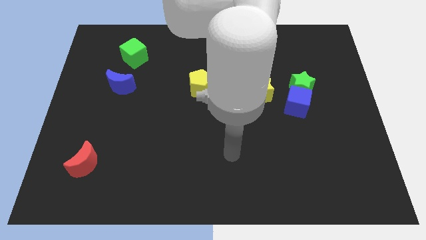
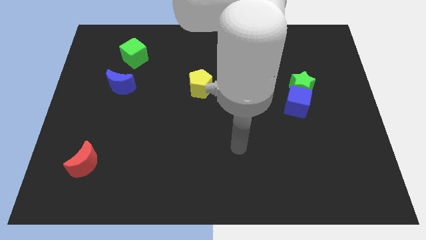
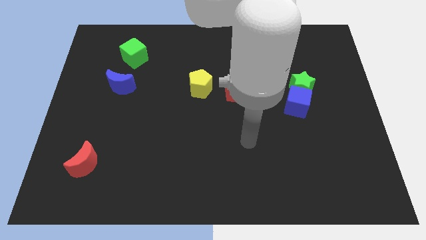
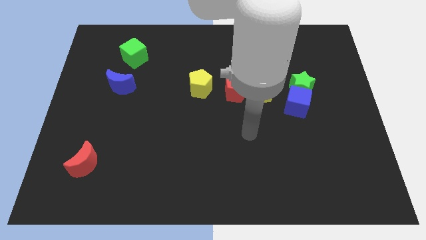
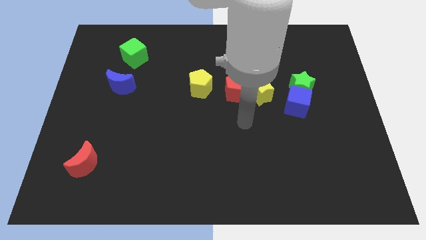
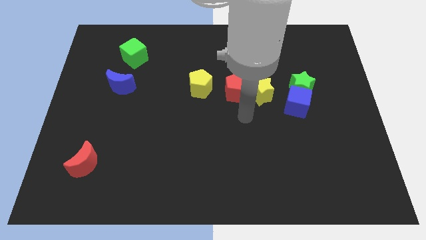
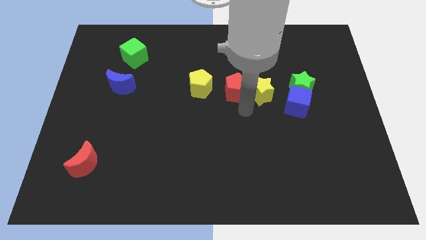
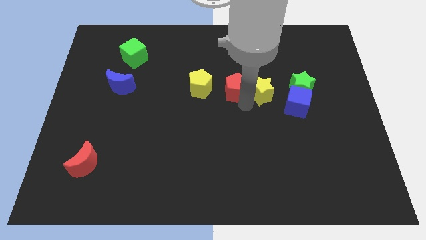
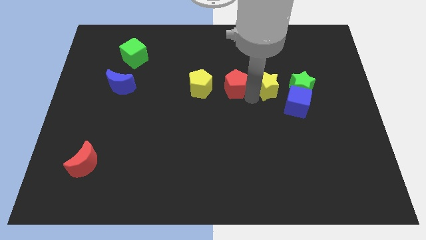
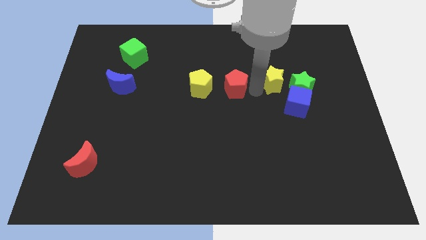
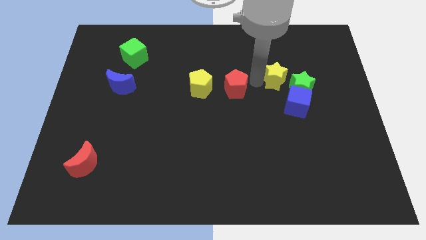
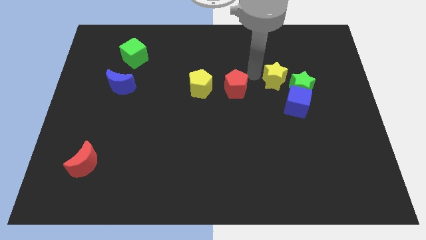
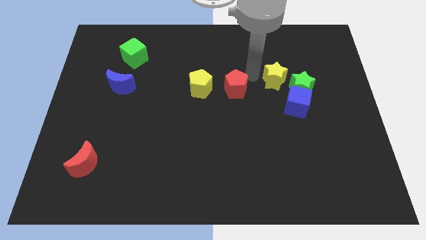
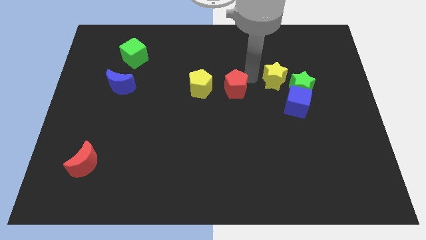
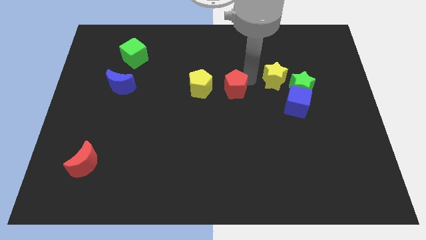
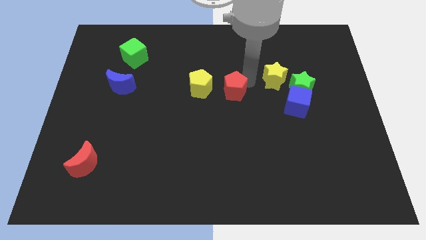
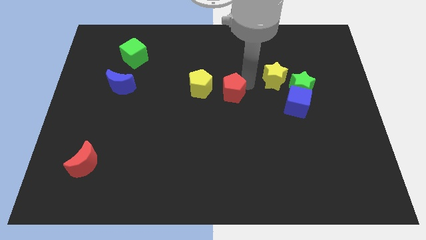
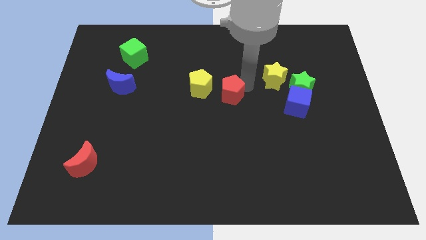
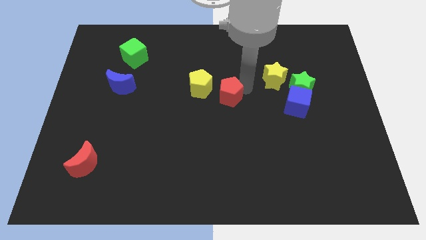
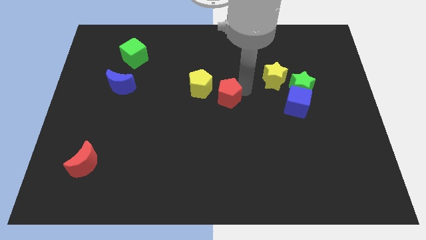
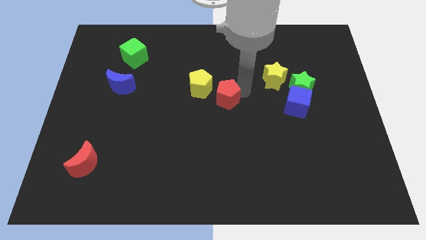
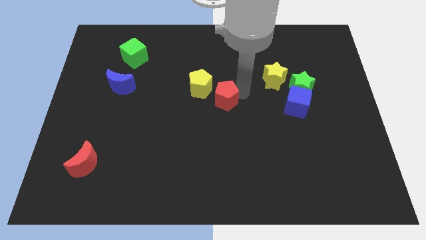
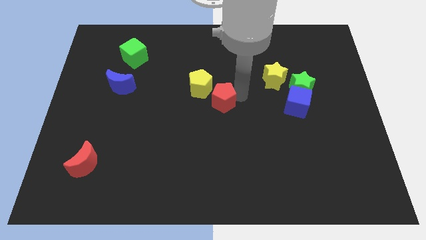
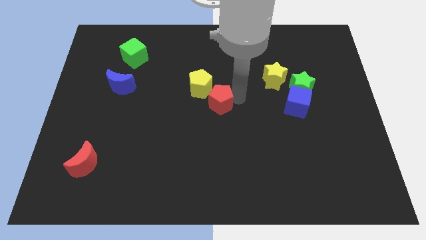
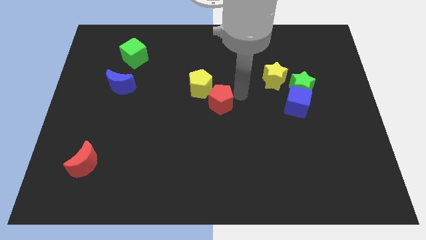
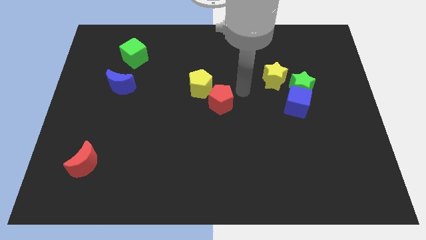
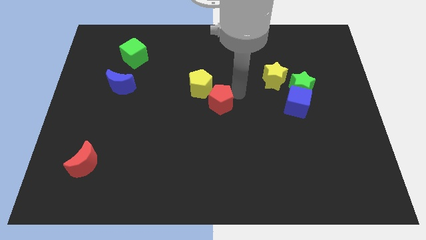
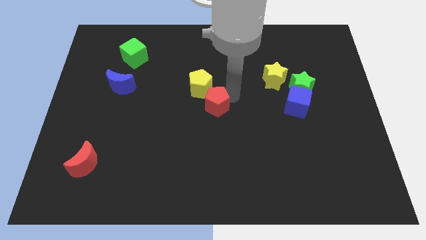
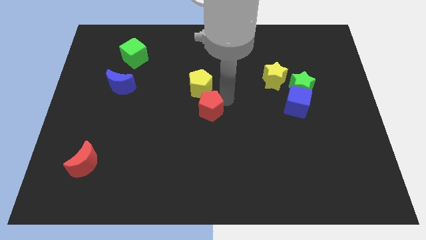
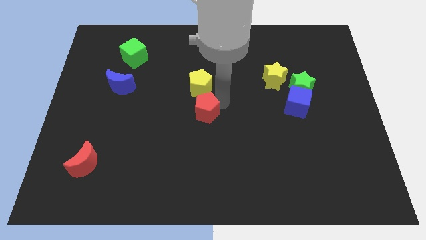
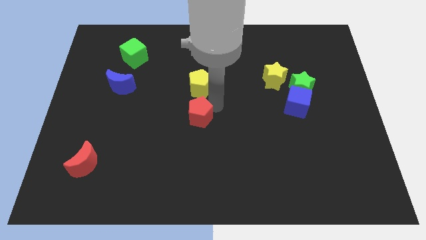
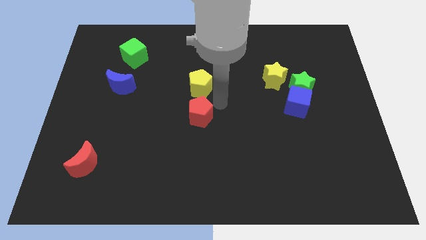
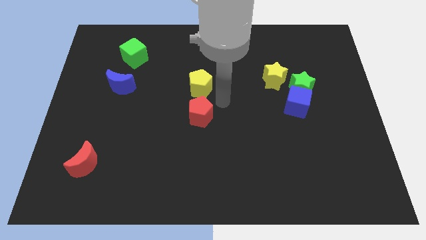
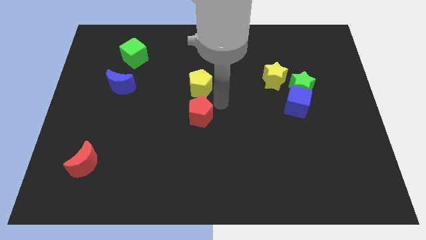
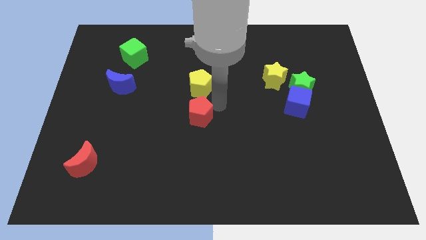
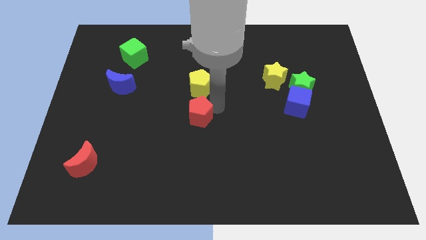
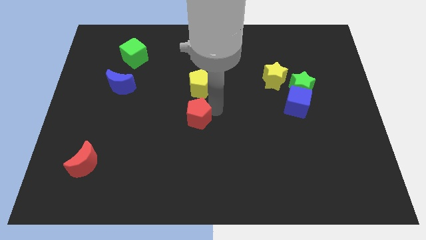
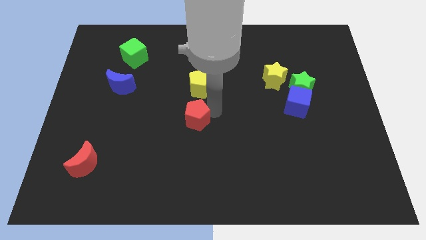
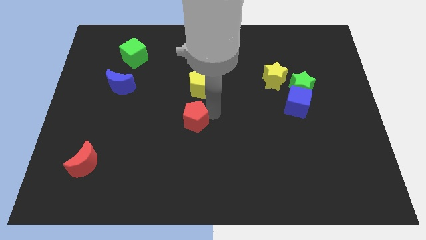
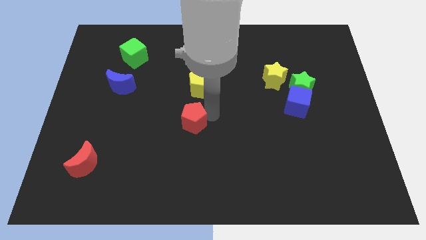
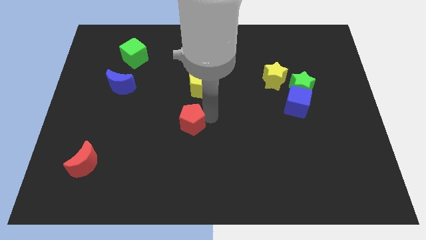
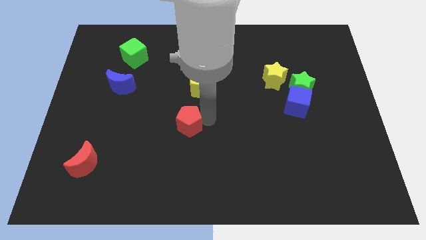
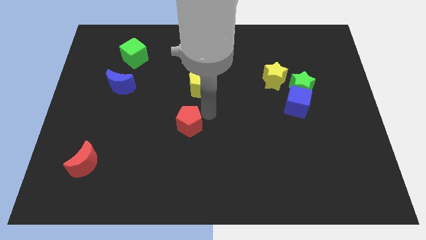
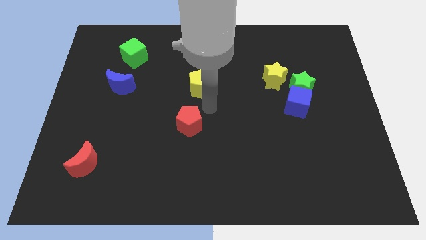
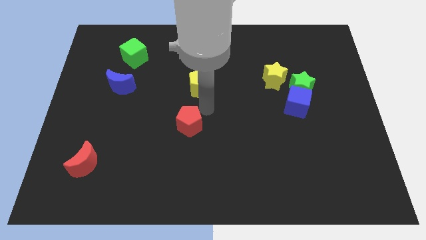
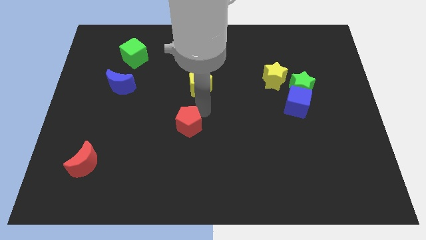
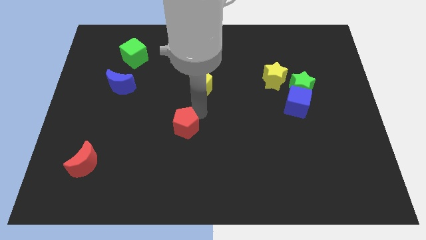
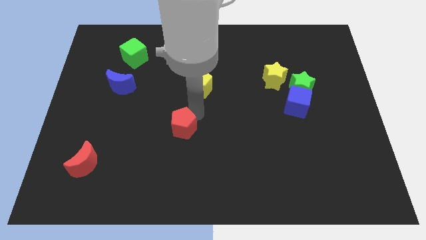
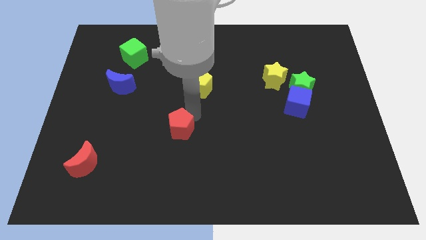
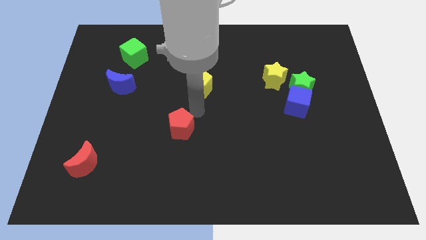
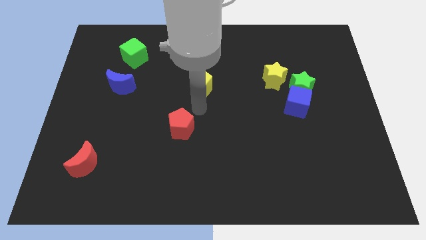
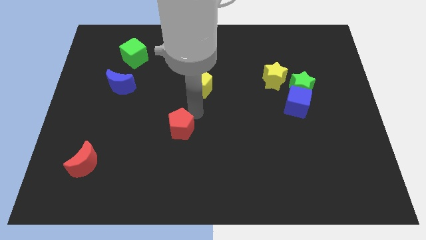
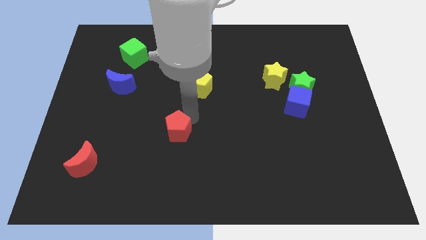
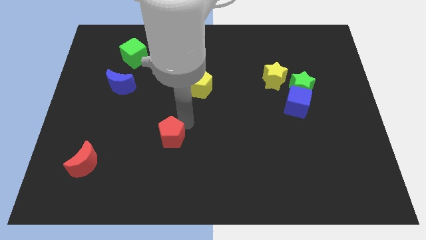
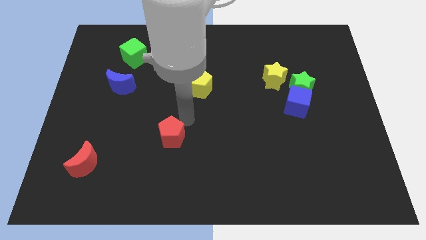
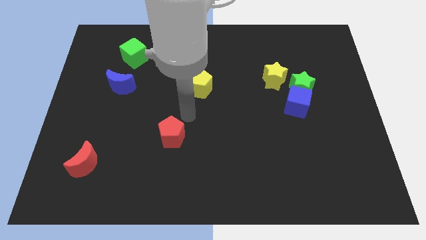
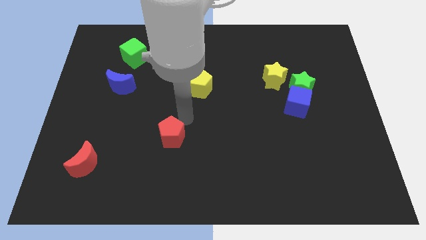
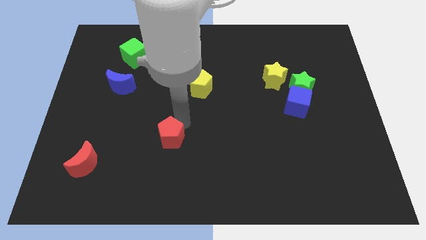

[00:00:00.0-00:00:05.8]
push the red pentagon down and to the left diagonally

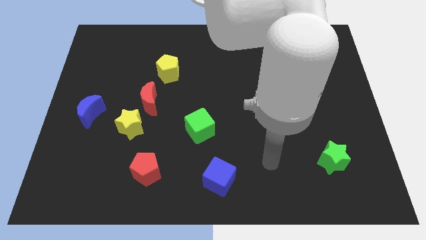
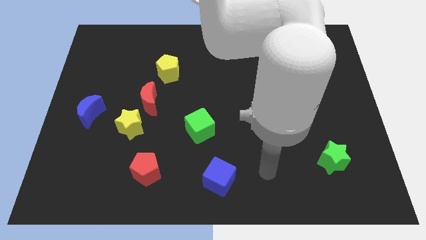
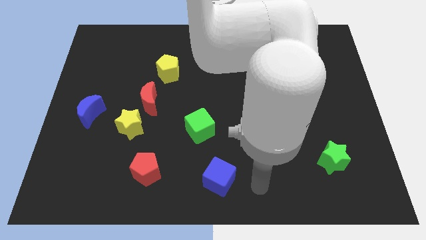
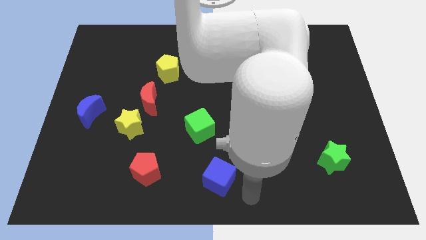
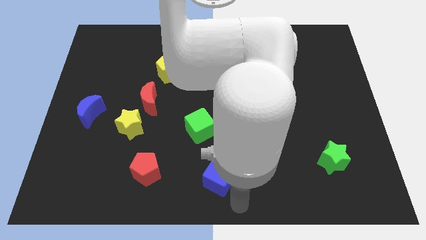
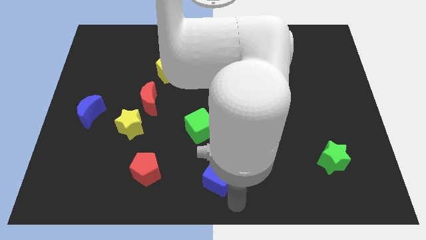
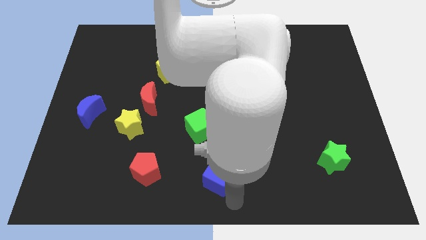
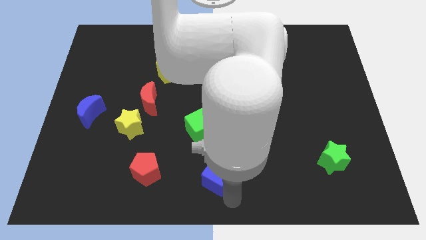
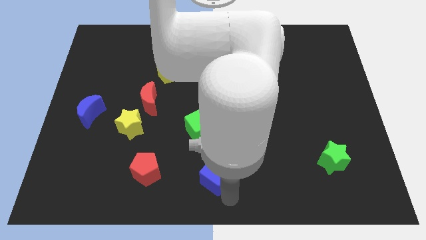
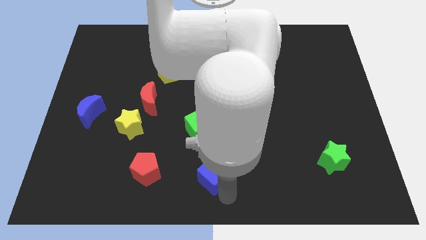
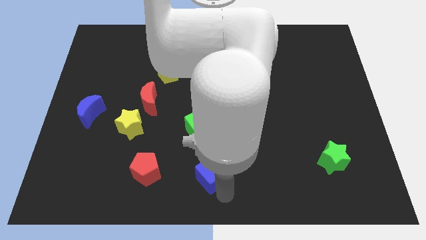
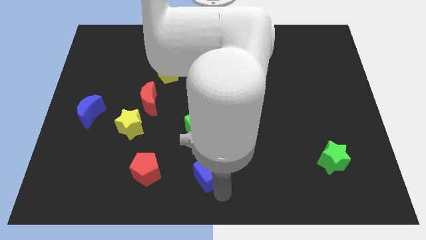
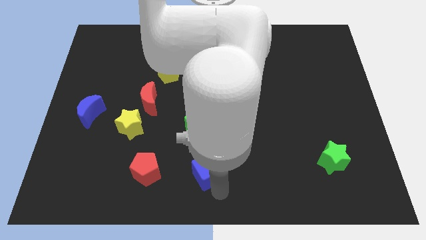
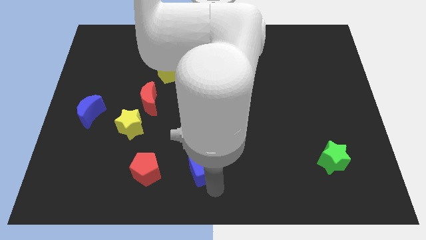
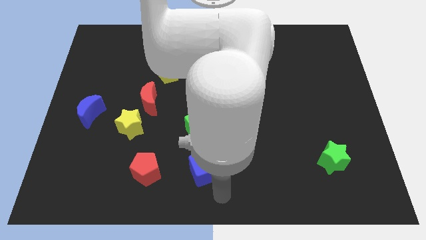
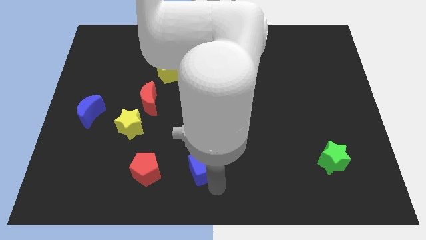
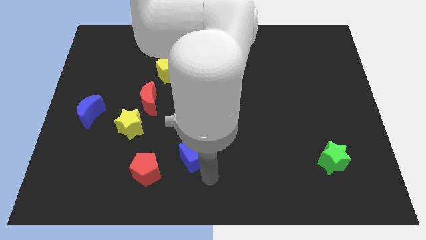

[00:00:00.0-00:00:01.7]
push the blue cube a bit upwards and left

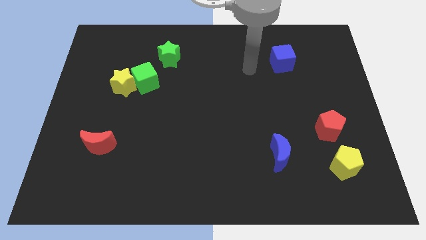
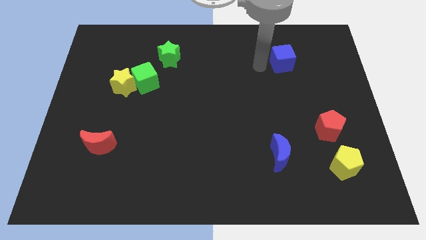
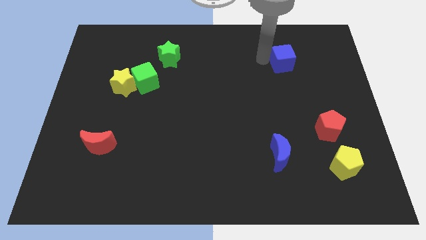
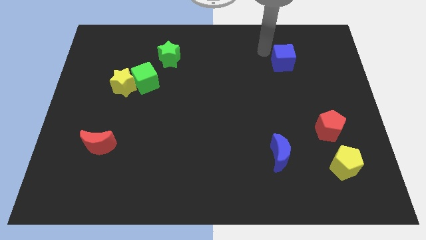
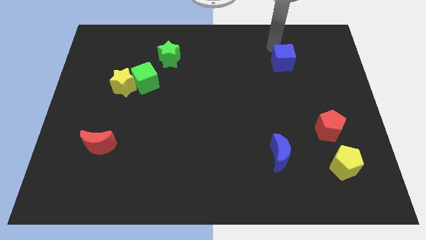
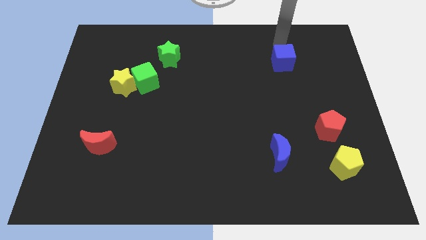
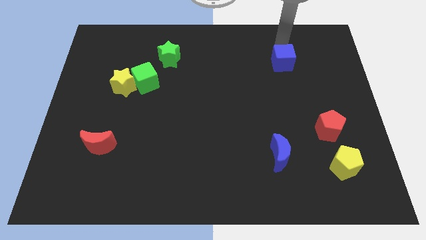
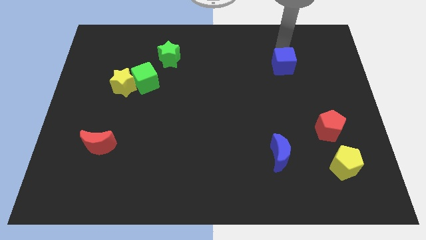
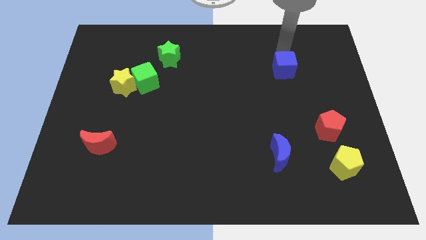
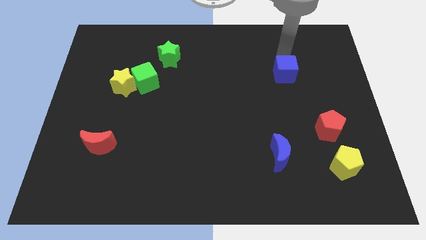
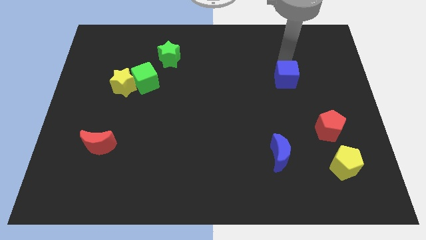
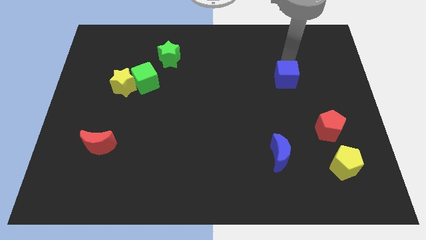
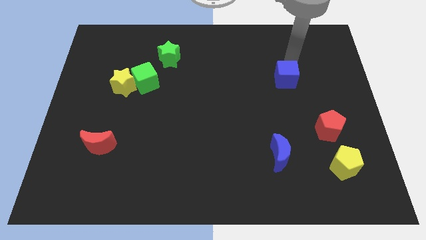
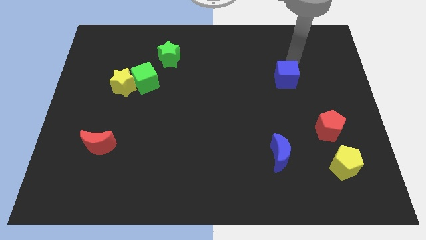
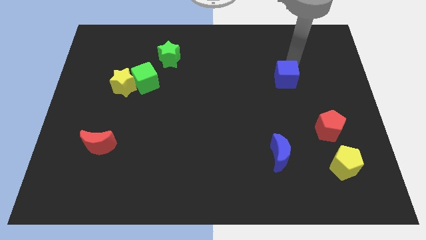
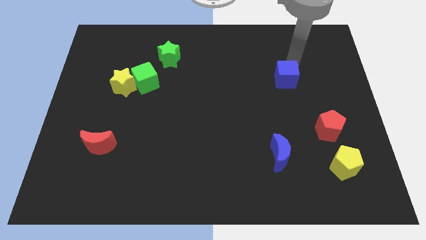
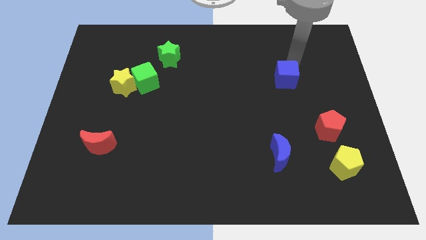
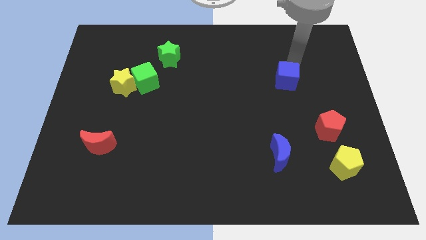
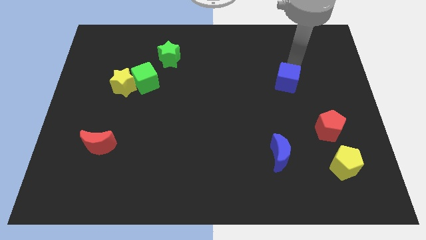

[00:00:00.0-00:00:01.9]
slightly push the blue cube down
